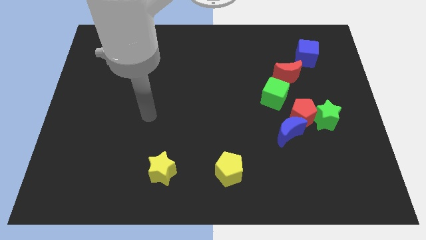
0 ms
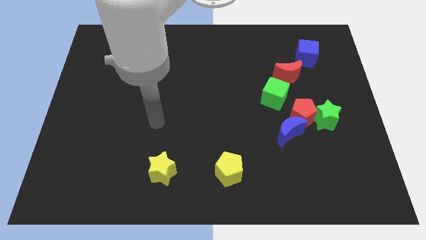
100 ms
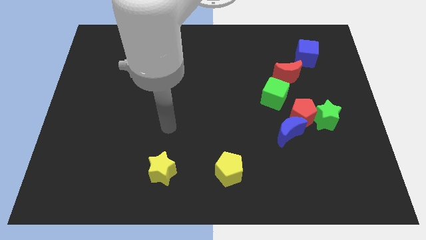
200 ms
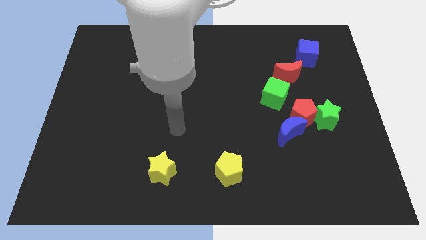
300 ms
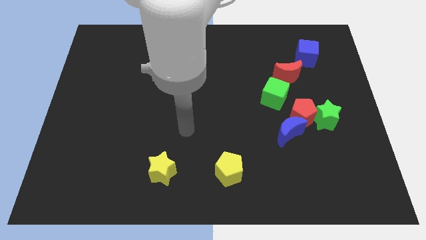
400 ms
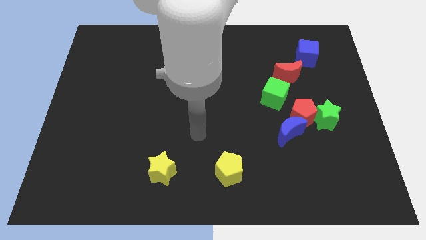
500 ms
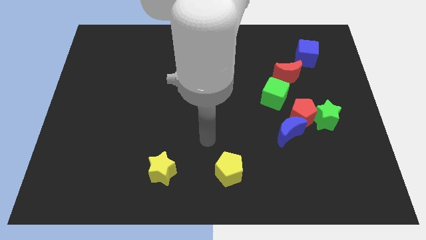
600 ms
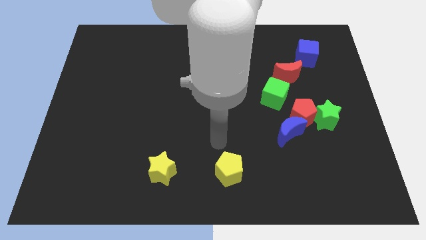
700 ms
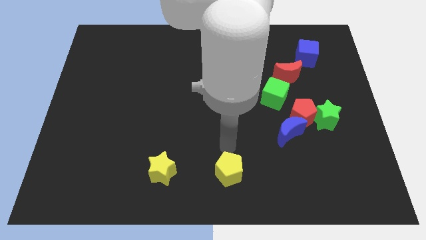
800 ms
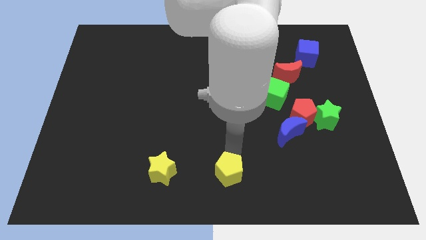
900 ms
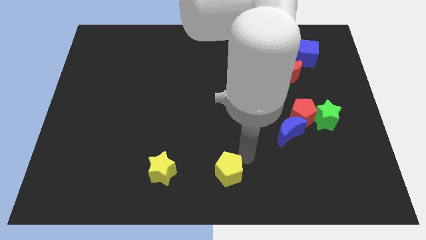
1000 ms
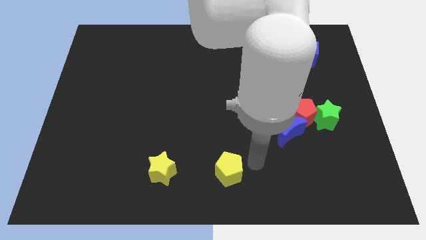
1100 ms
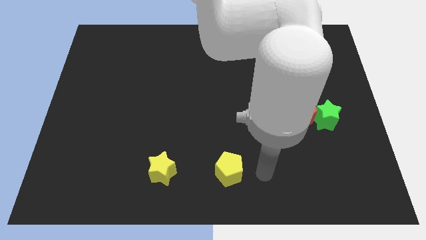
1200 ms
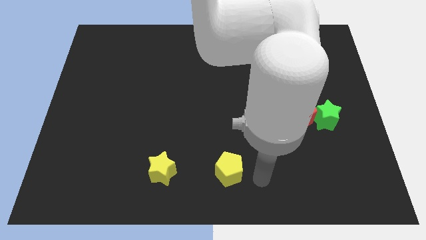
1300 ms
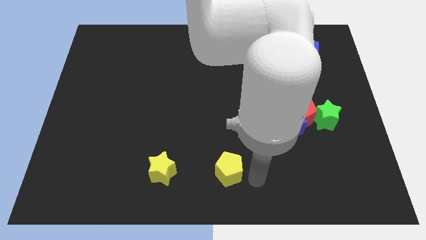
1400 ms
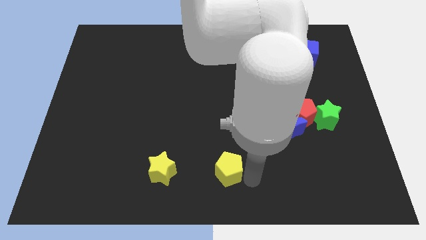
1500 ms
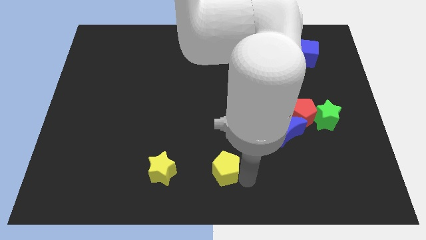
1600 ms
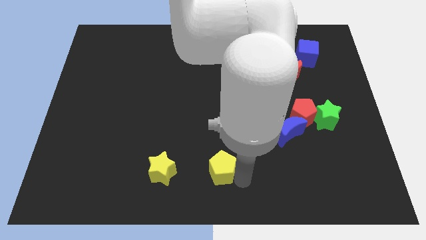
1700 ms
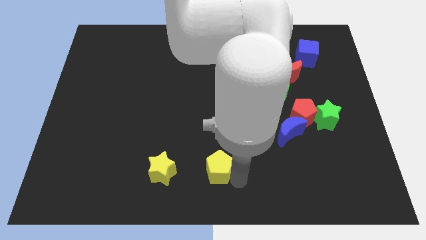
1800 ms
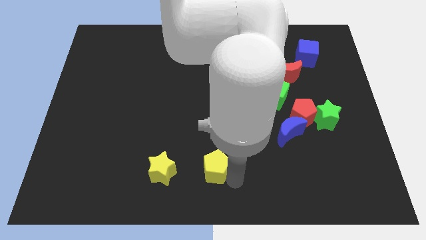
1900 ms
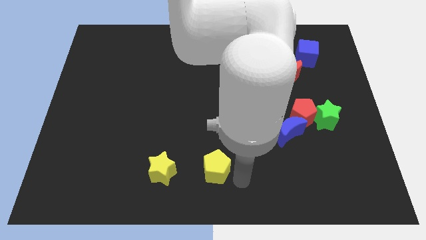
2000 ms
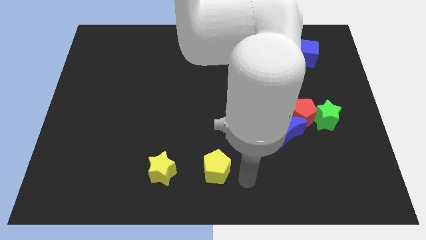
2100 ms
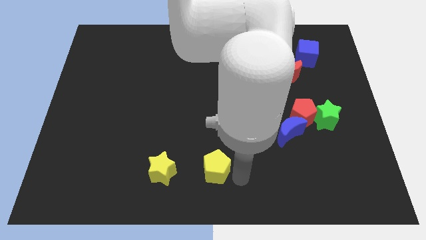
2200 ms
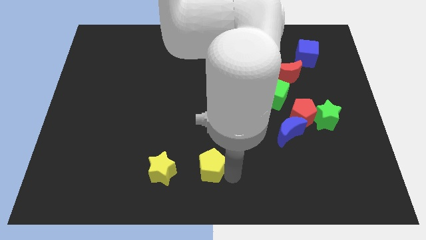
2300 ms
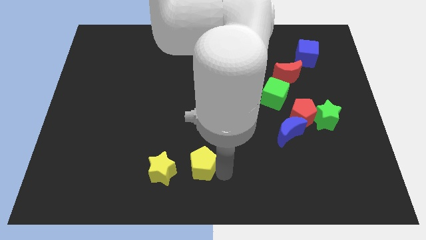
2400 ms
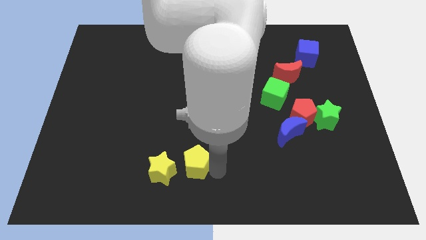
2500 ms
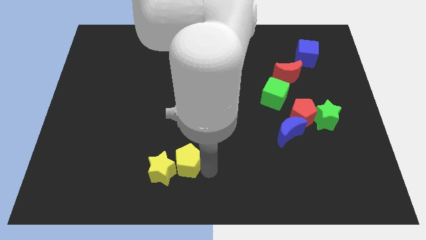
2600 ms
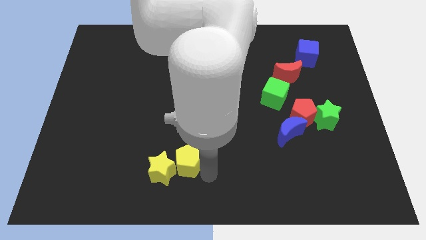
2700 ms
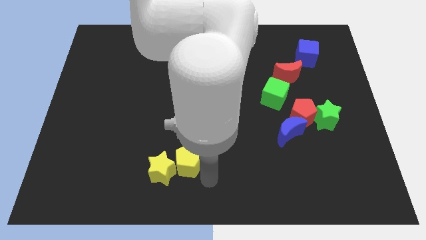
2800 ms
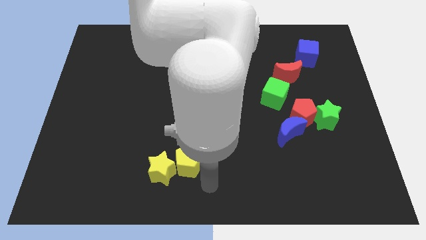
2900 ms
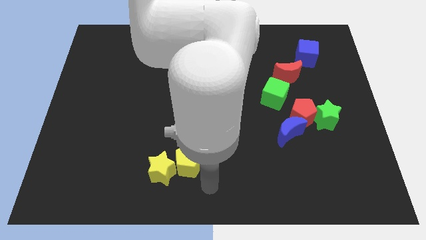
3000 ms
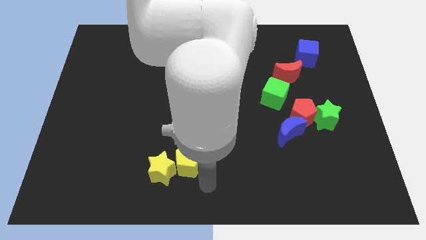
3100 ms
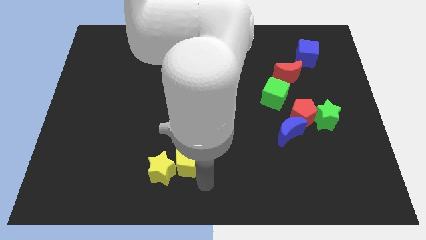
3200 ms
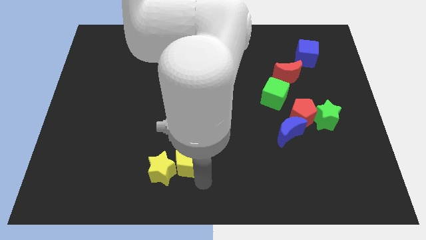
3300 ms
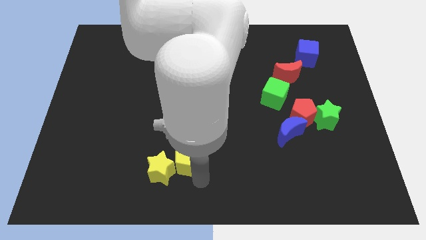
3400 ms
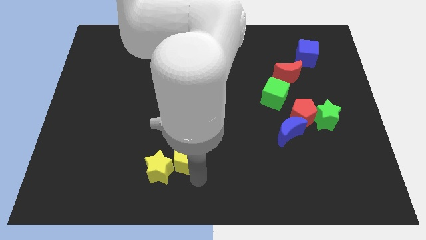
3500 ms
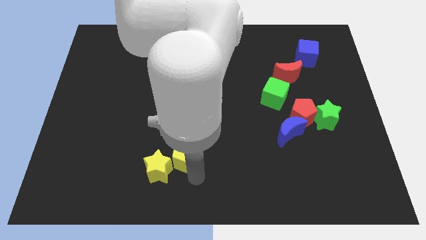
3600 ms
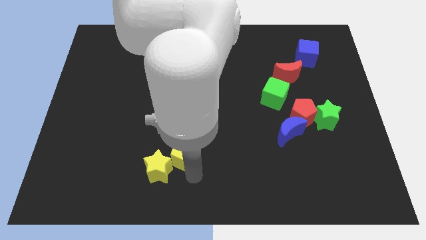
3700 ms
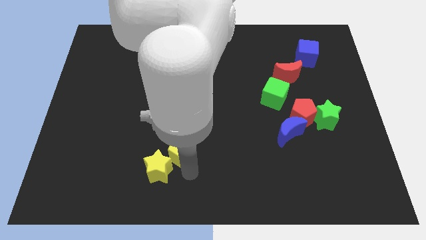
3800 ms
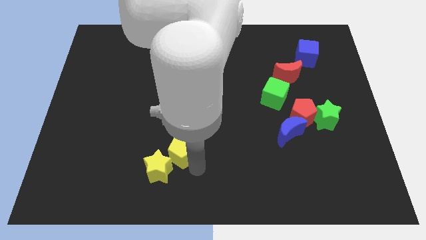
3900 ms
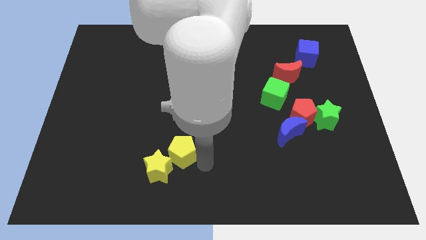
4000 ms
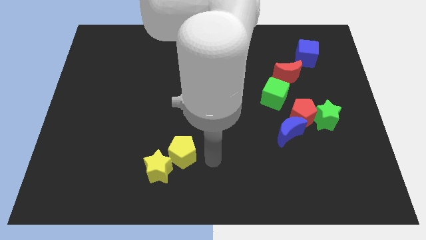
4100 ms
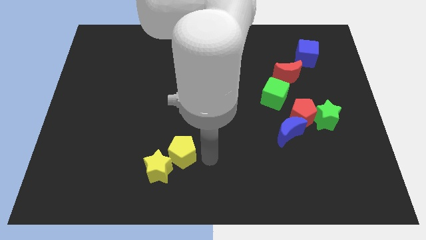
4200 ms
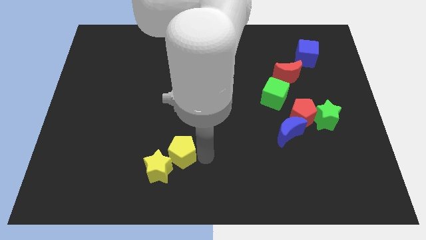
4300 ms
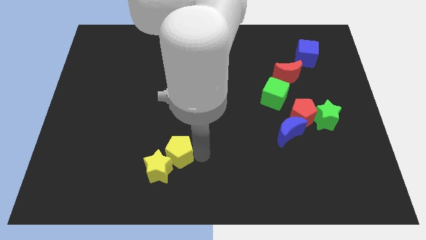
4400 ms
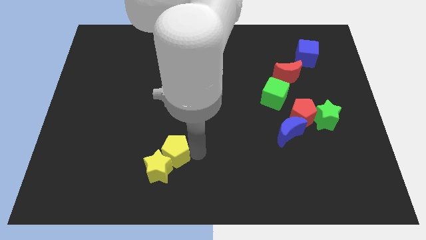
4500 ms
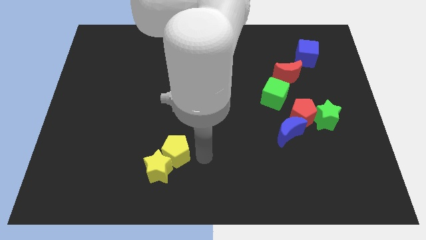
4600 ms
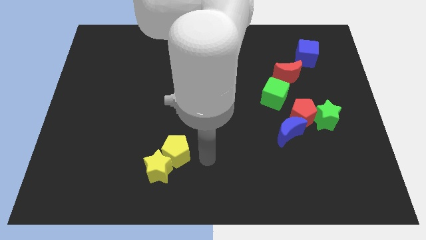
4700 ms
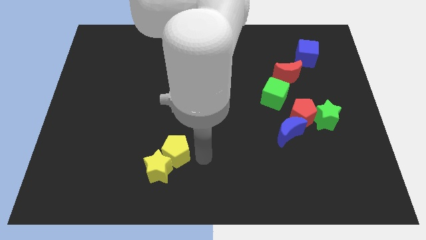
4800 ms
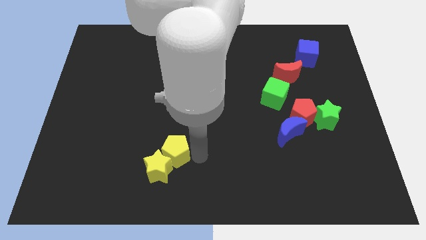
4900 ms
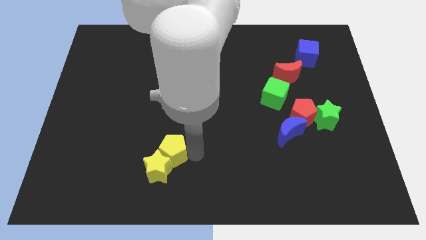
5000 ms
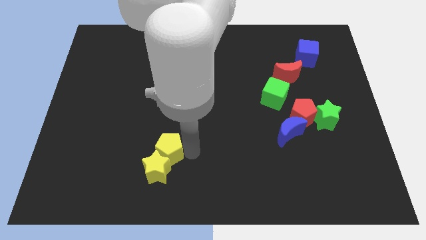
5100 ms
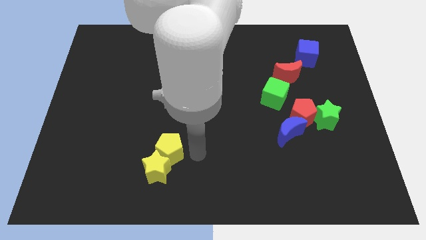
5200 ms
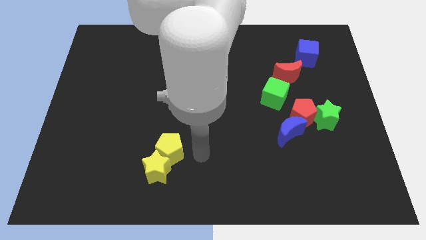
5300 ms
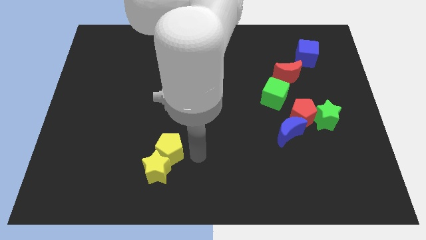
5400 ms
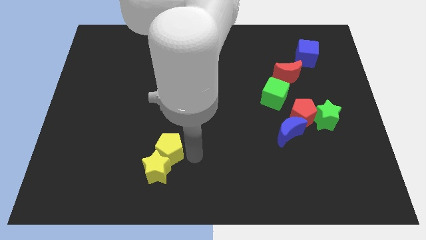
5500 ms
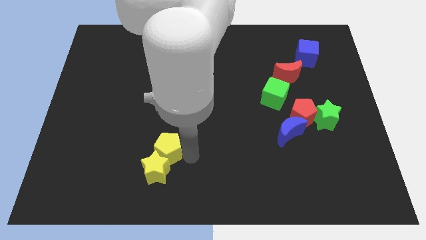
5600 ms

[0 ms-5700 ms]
push the yellow pentagon diagonally up and to the left of the yellow star

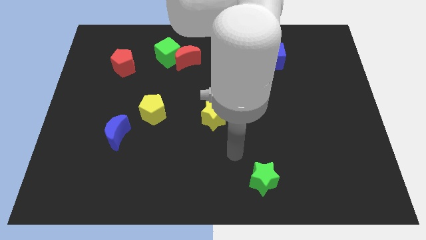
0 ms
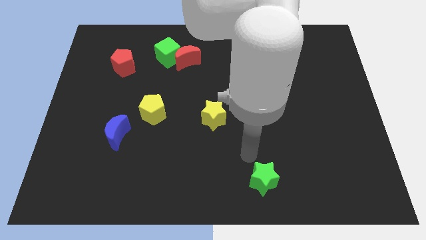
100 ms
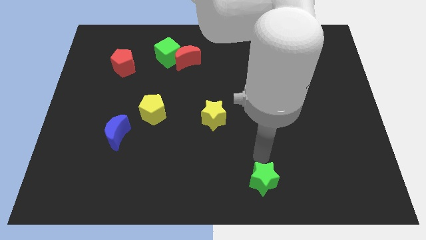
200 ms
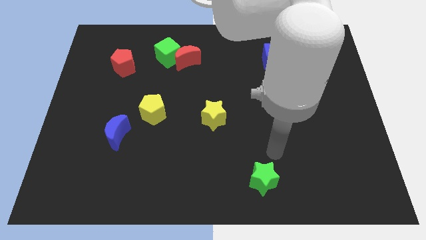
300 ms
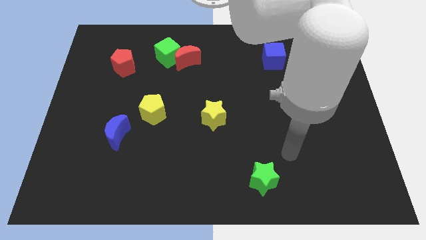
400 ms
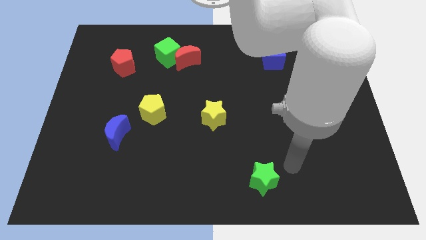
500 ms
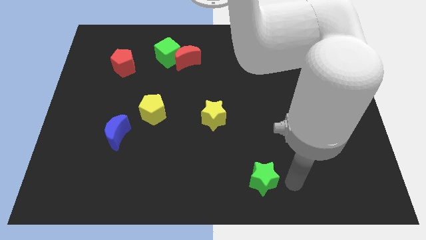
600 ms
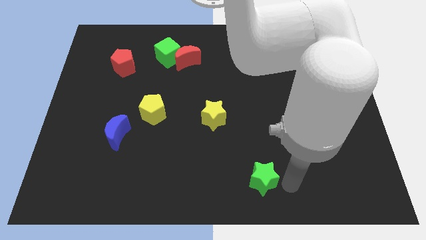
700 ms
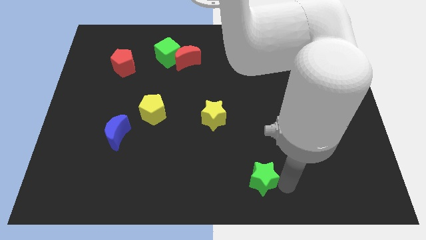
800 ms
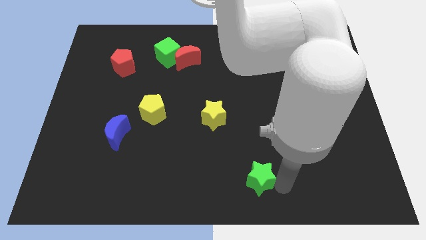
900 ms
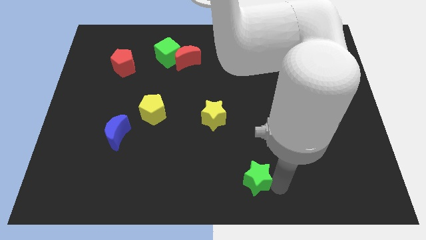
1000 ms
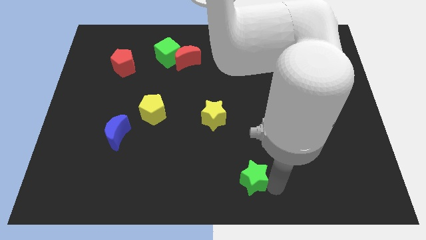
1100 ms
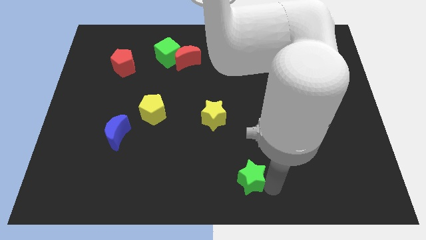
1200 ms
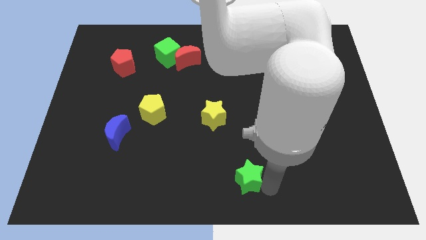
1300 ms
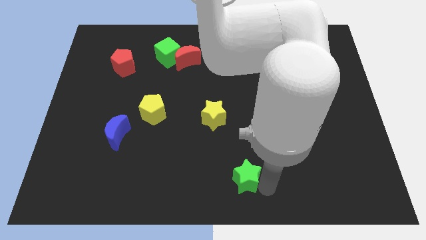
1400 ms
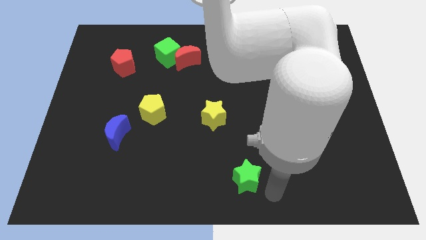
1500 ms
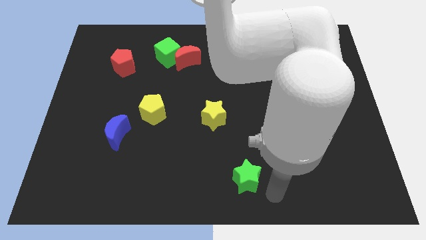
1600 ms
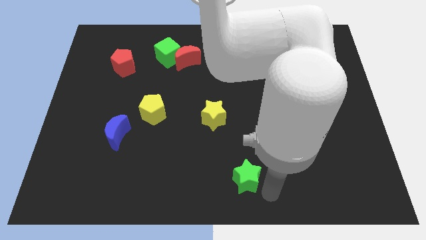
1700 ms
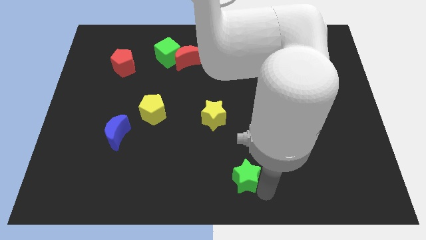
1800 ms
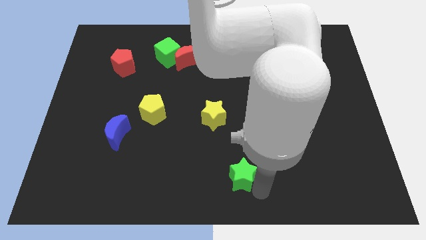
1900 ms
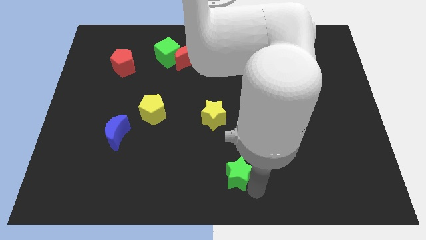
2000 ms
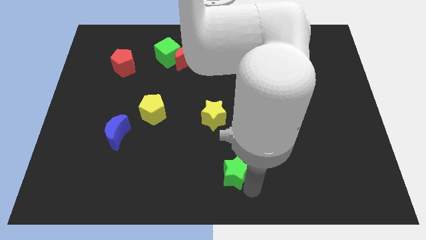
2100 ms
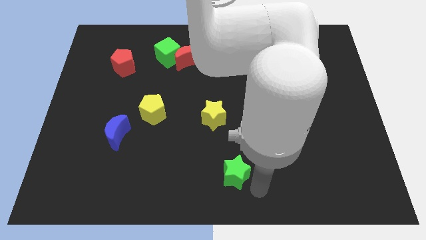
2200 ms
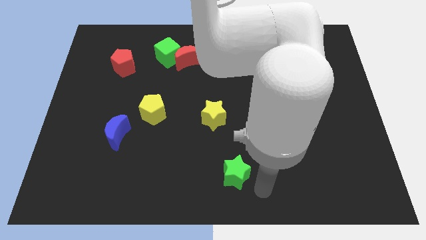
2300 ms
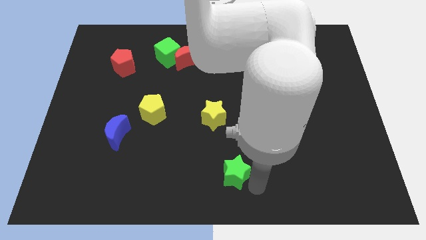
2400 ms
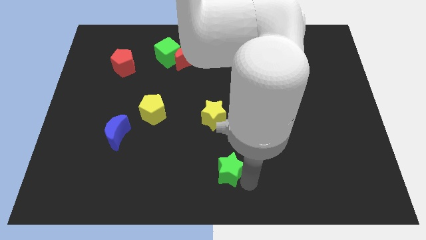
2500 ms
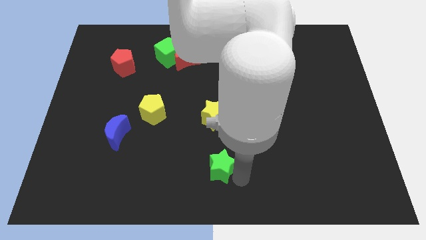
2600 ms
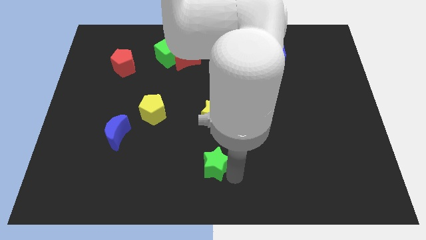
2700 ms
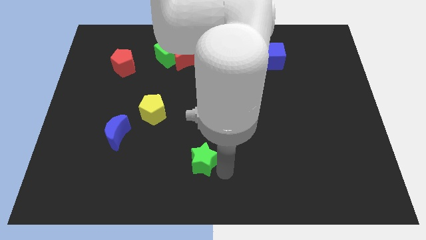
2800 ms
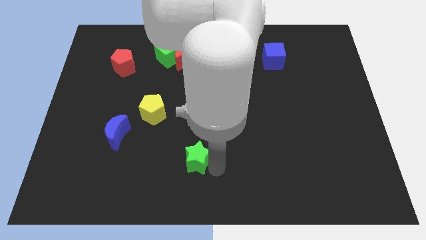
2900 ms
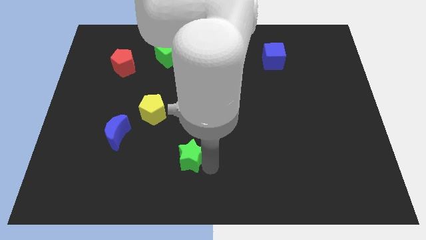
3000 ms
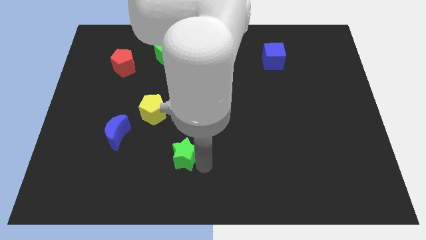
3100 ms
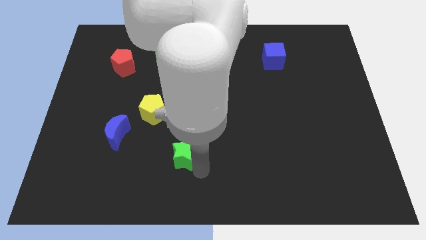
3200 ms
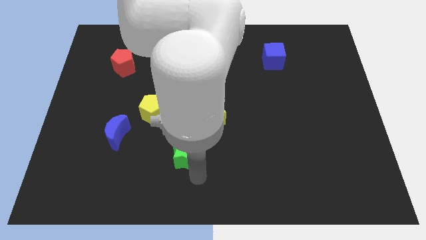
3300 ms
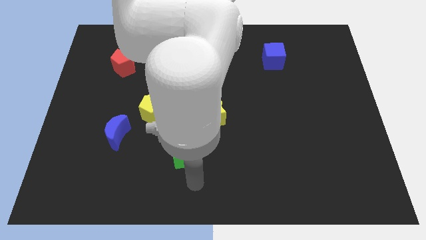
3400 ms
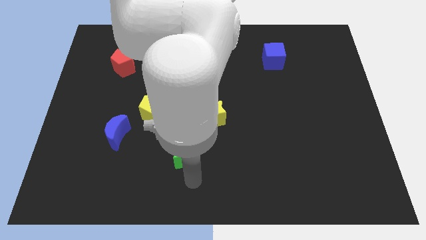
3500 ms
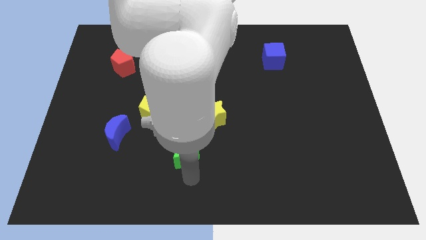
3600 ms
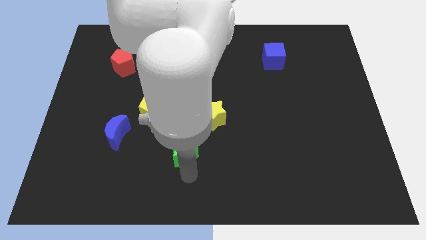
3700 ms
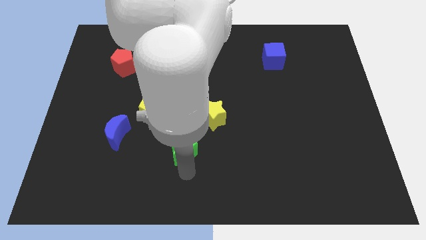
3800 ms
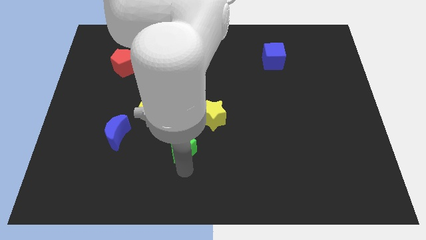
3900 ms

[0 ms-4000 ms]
push the green star to the bottom right of the yellow pentagon
